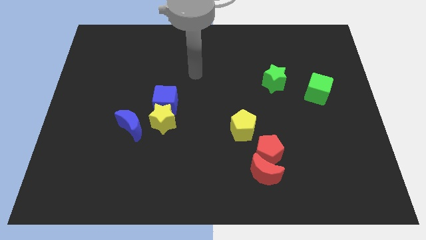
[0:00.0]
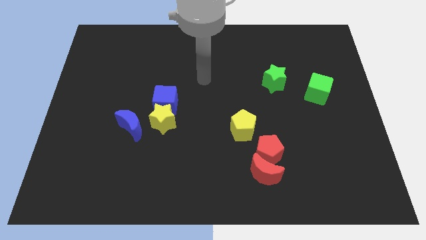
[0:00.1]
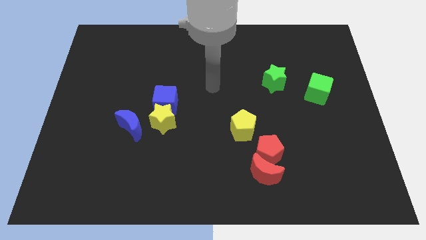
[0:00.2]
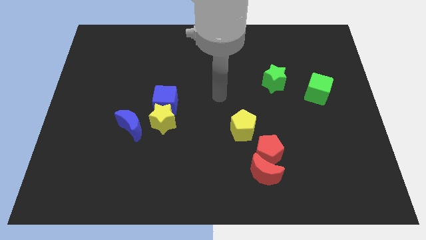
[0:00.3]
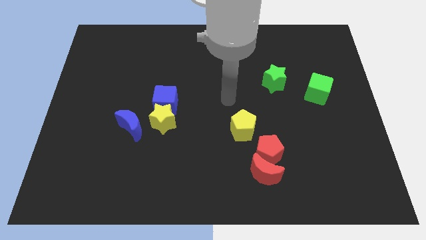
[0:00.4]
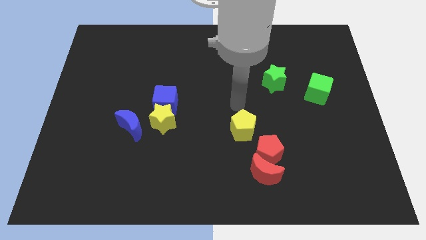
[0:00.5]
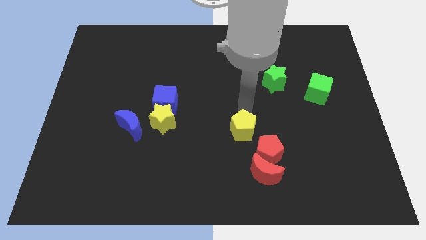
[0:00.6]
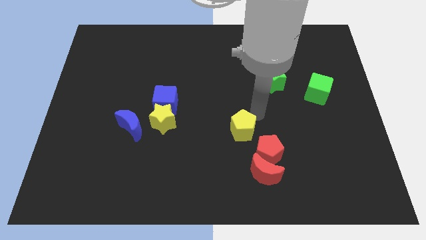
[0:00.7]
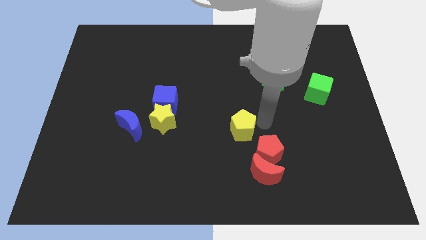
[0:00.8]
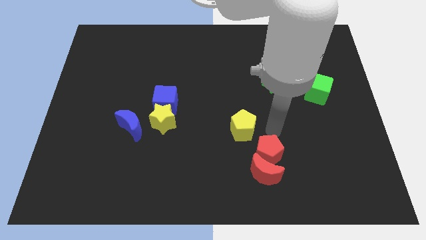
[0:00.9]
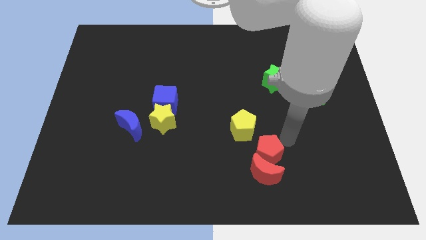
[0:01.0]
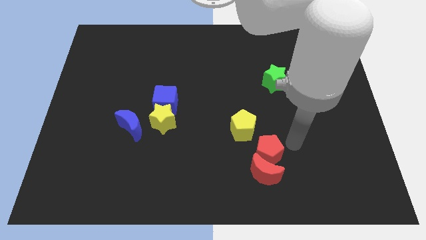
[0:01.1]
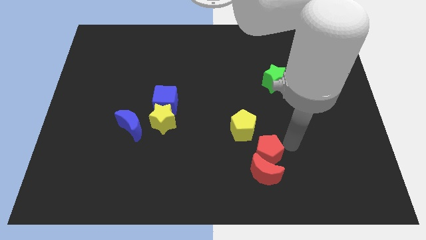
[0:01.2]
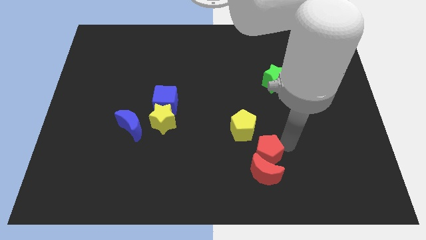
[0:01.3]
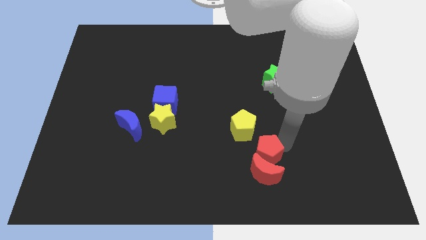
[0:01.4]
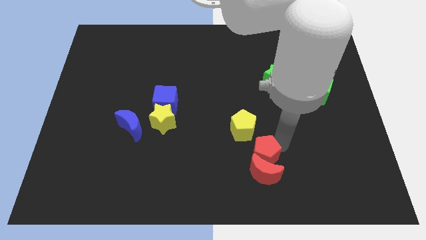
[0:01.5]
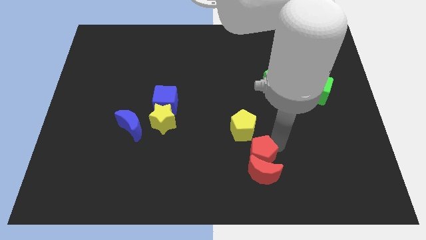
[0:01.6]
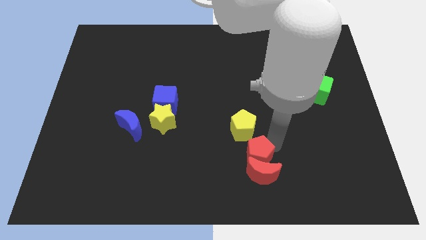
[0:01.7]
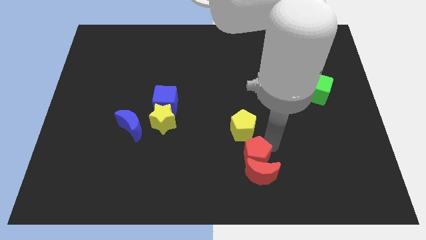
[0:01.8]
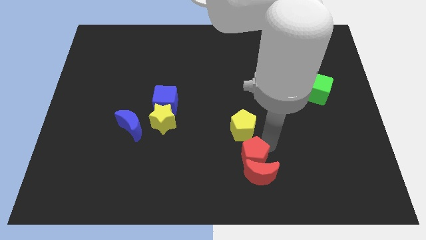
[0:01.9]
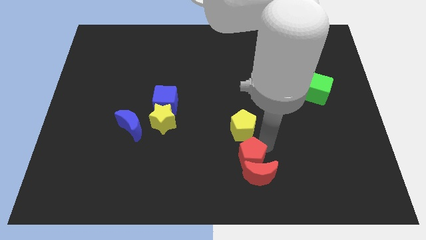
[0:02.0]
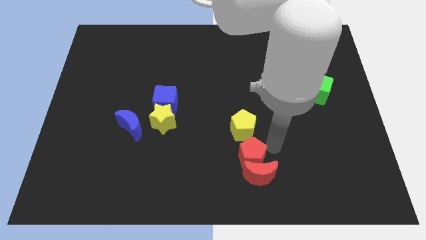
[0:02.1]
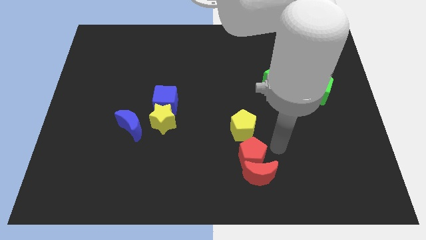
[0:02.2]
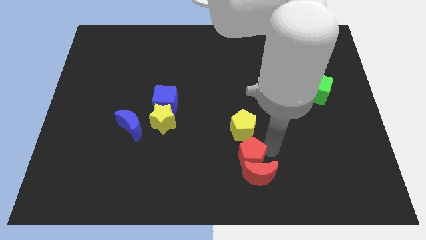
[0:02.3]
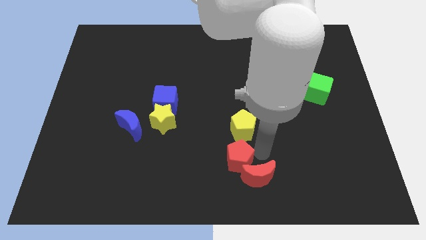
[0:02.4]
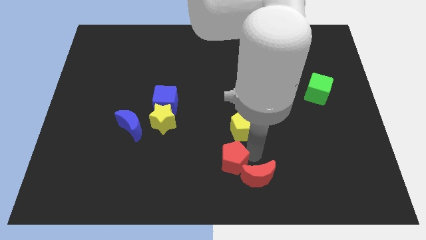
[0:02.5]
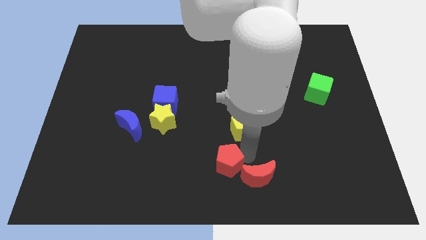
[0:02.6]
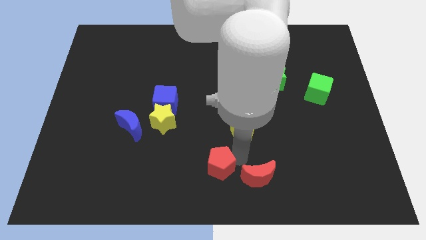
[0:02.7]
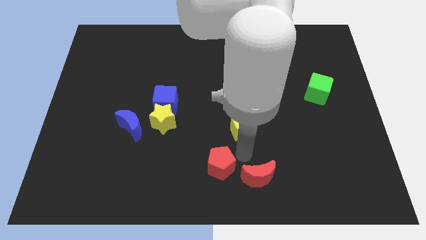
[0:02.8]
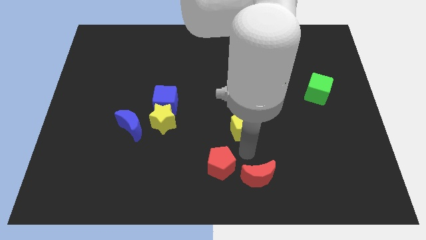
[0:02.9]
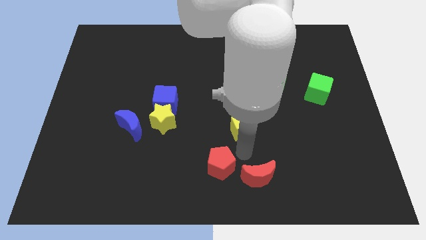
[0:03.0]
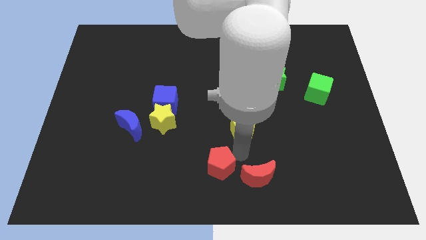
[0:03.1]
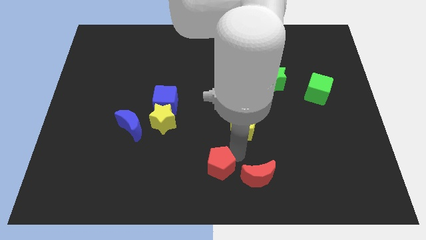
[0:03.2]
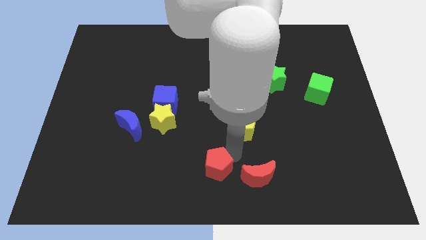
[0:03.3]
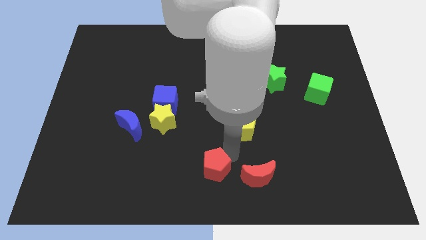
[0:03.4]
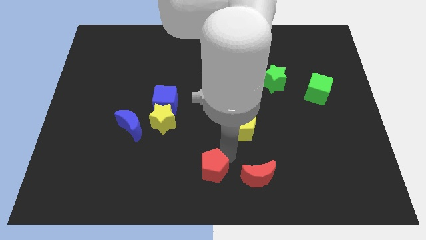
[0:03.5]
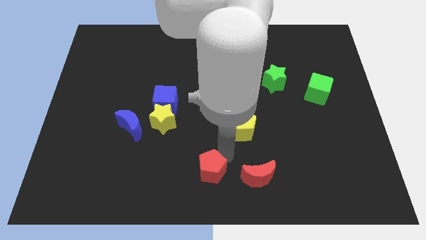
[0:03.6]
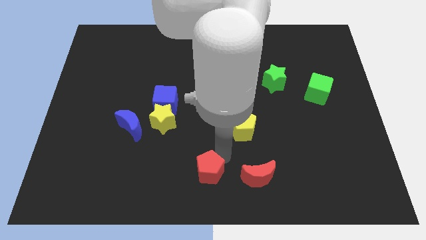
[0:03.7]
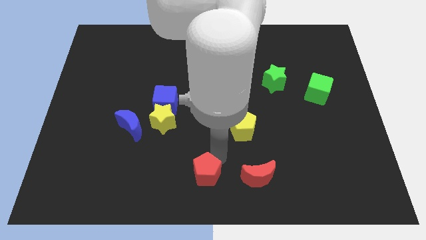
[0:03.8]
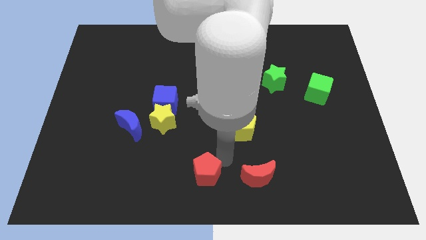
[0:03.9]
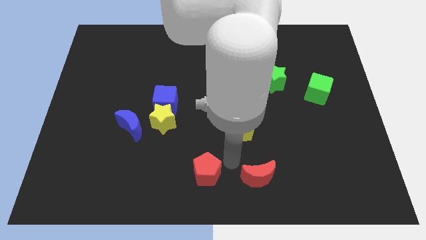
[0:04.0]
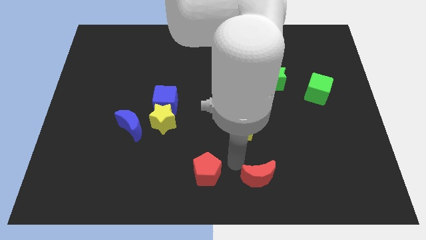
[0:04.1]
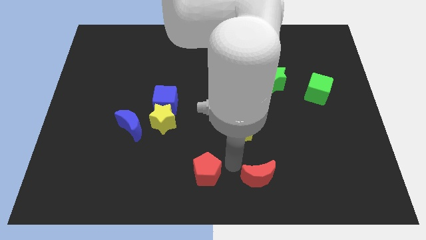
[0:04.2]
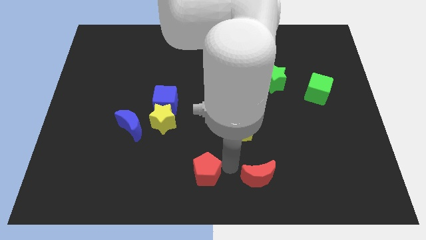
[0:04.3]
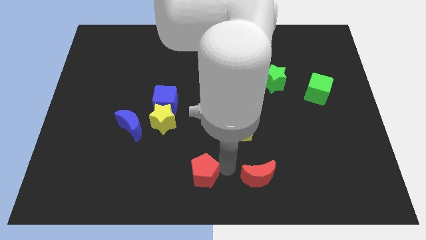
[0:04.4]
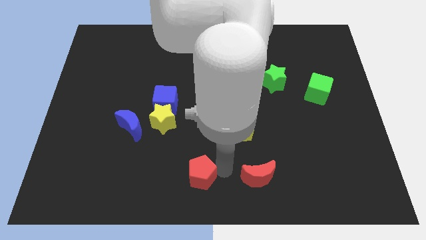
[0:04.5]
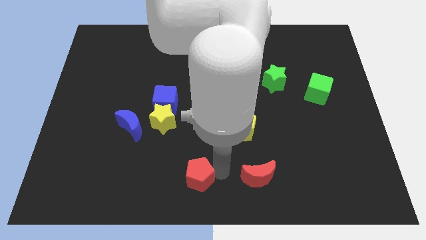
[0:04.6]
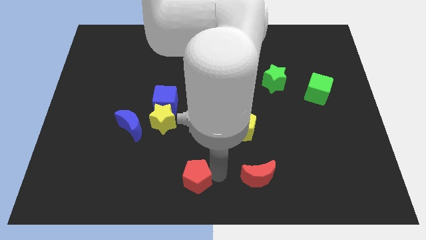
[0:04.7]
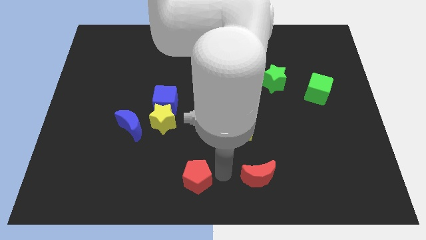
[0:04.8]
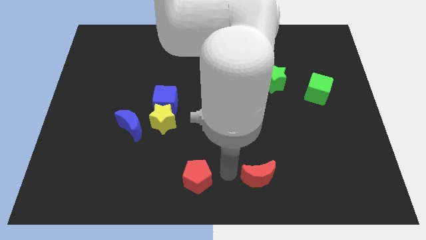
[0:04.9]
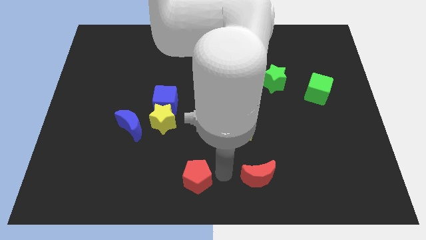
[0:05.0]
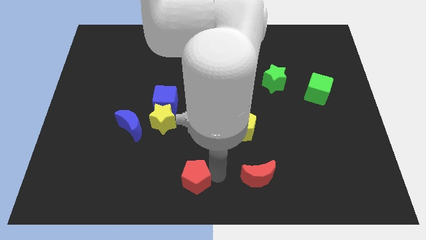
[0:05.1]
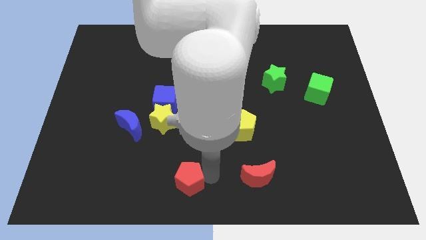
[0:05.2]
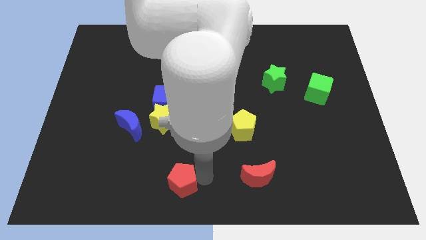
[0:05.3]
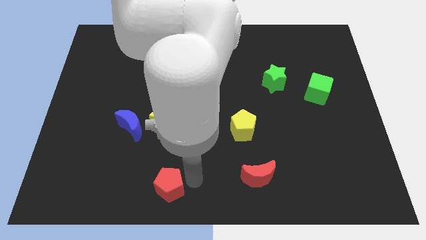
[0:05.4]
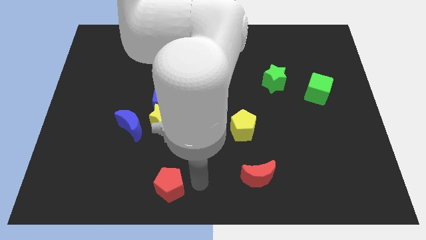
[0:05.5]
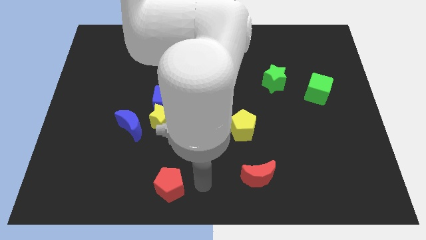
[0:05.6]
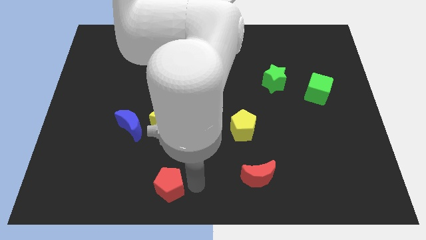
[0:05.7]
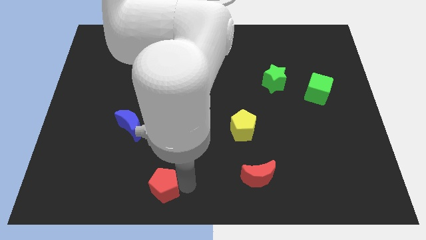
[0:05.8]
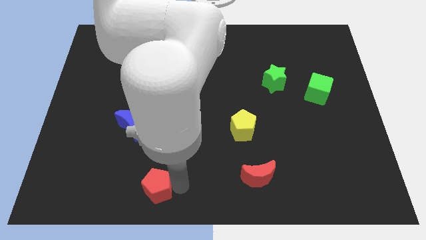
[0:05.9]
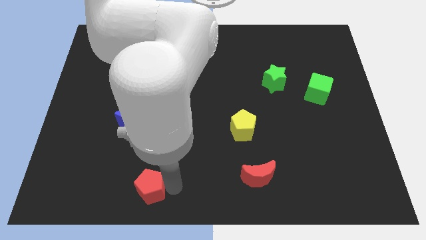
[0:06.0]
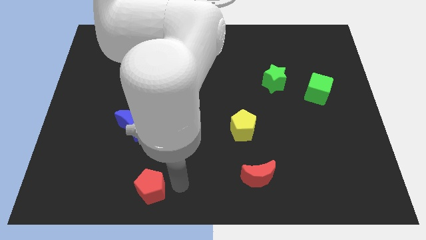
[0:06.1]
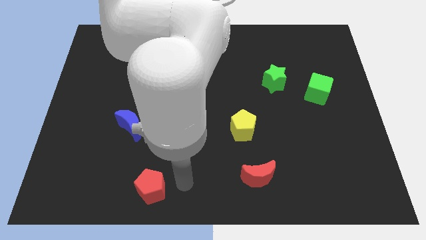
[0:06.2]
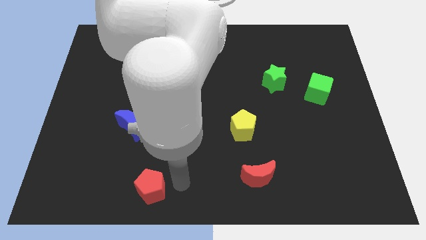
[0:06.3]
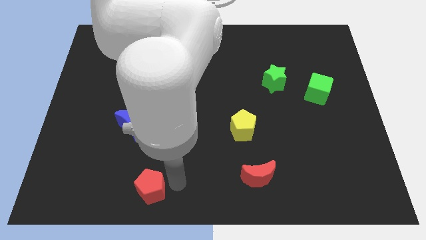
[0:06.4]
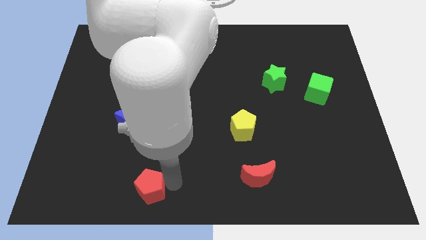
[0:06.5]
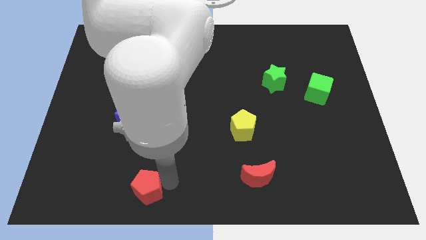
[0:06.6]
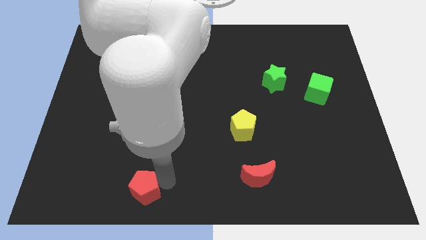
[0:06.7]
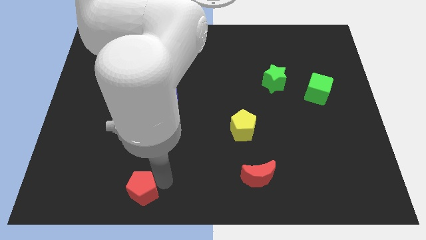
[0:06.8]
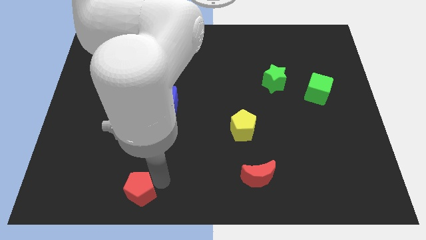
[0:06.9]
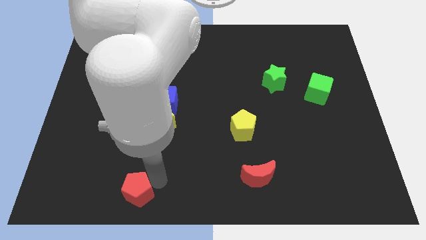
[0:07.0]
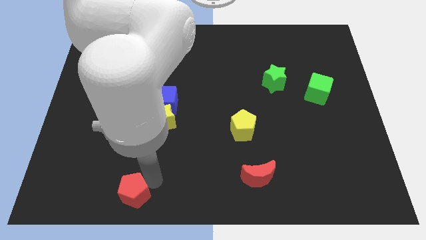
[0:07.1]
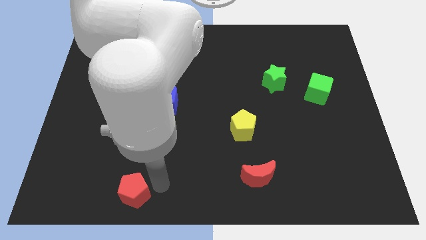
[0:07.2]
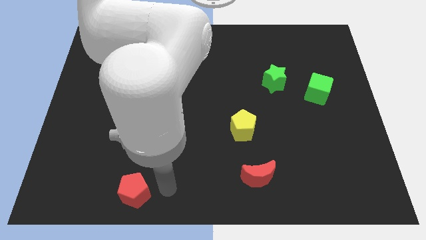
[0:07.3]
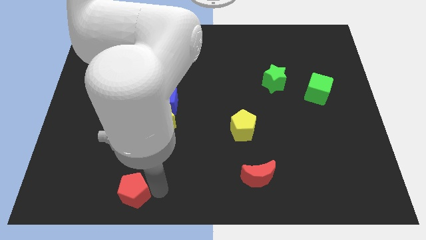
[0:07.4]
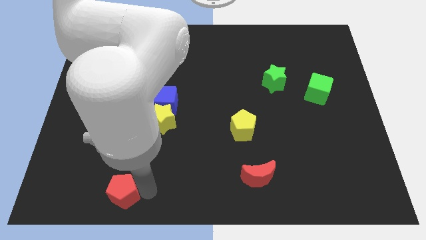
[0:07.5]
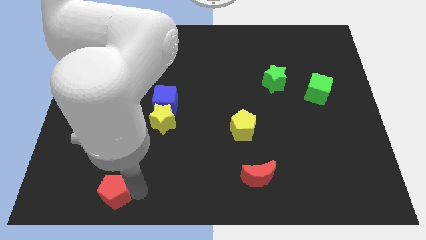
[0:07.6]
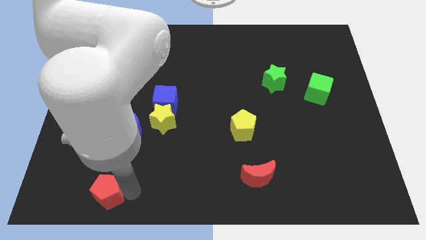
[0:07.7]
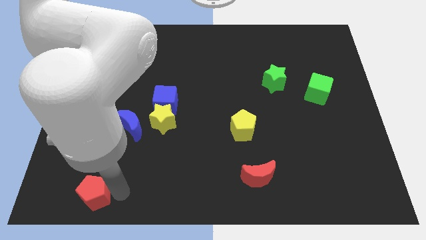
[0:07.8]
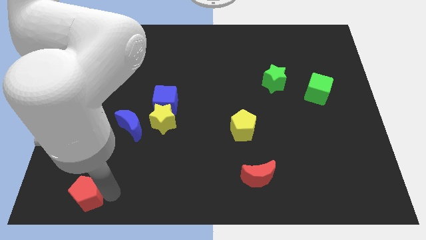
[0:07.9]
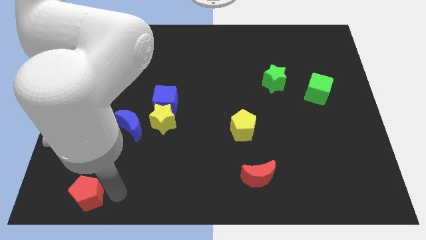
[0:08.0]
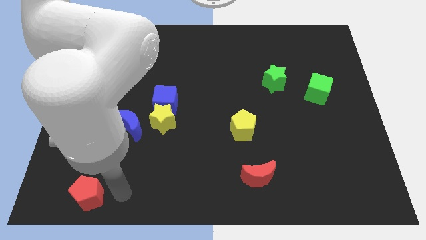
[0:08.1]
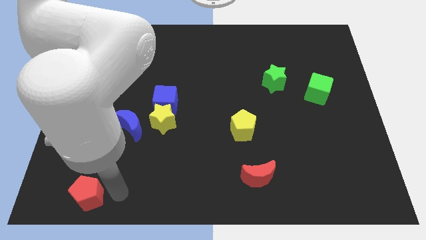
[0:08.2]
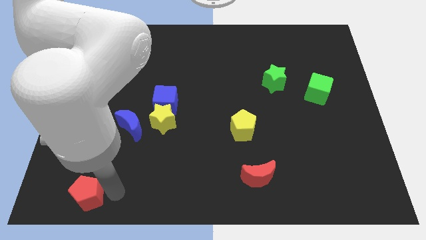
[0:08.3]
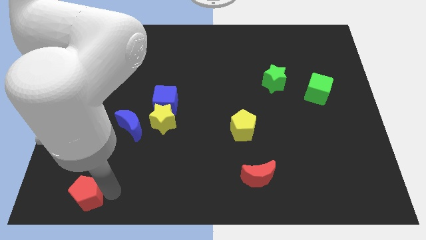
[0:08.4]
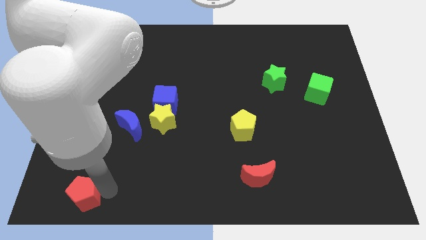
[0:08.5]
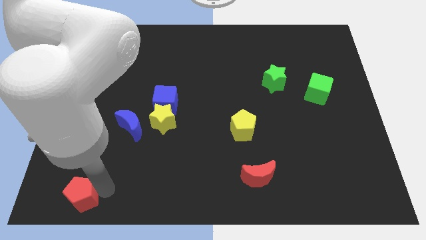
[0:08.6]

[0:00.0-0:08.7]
push the red pentagon to the lower left corner
